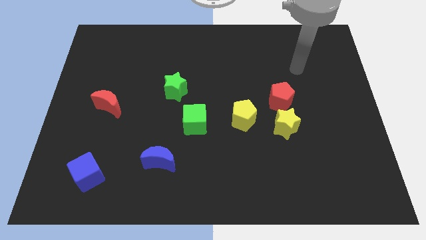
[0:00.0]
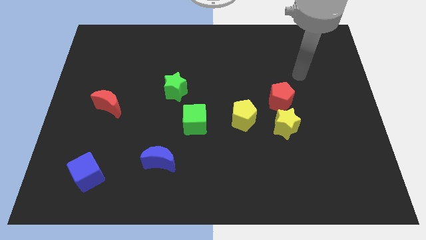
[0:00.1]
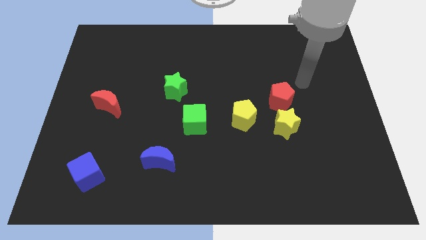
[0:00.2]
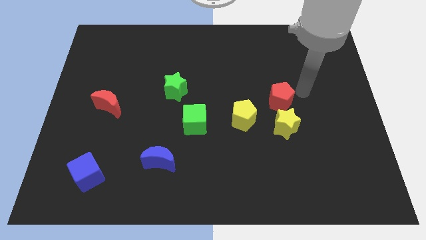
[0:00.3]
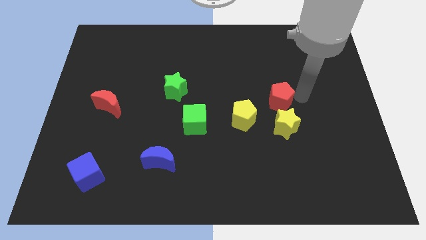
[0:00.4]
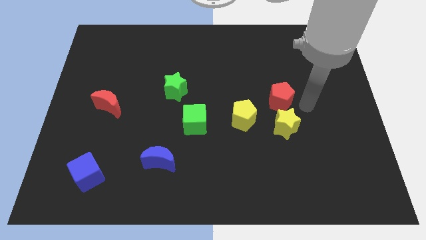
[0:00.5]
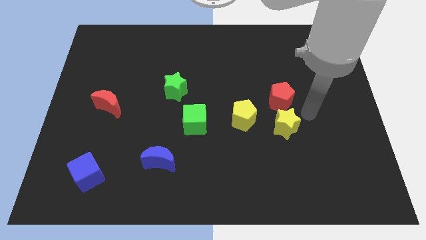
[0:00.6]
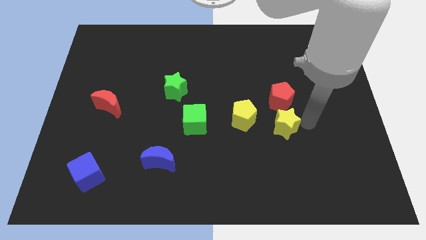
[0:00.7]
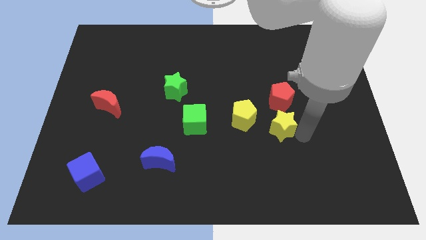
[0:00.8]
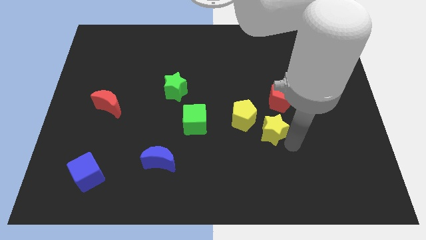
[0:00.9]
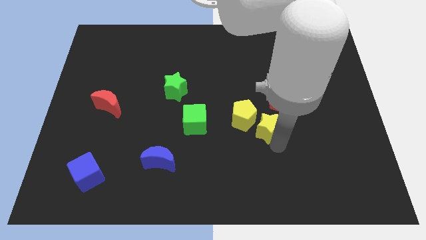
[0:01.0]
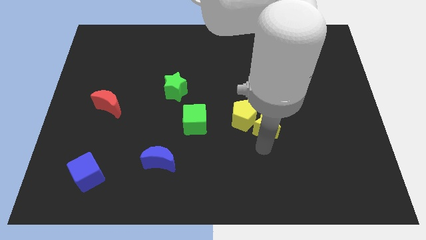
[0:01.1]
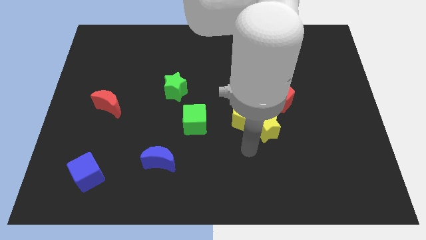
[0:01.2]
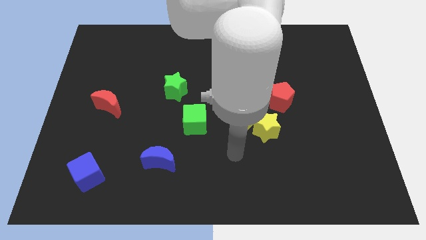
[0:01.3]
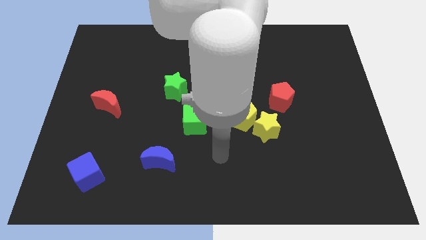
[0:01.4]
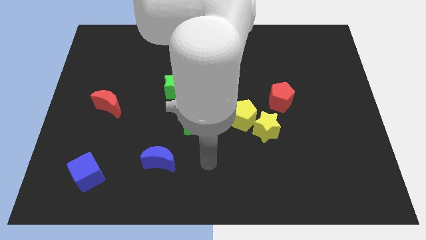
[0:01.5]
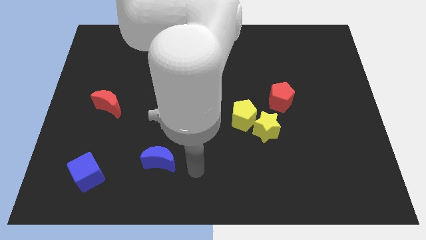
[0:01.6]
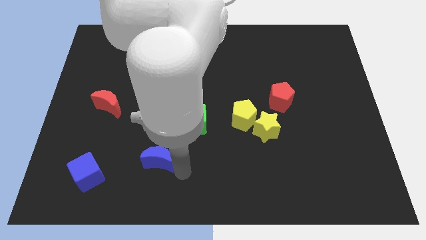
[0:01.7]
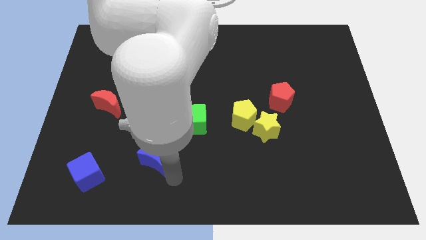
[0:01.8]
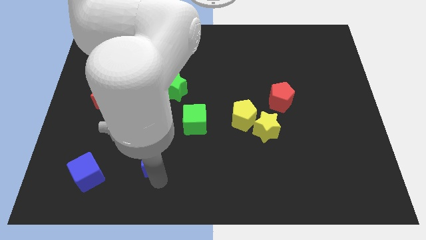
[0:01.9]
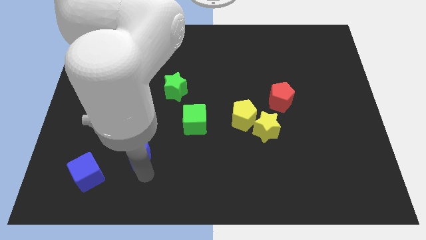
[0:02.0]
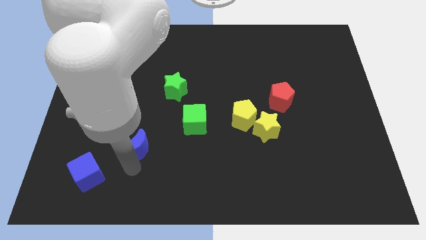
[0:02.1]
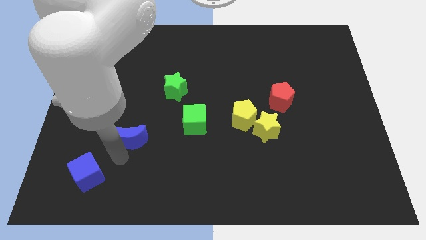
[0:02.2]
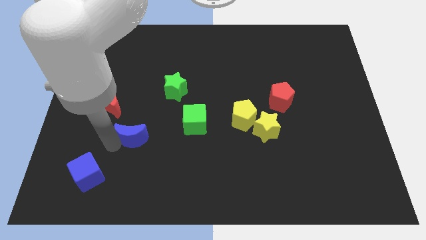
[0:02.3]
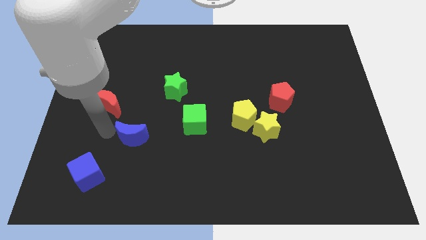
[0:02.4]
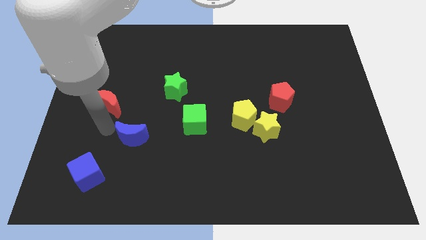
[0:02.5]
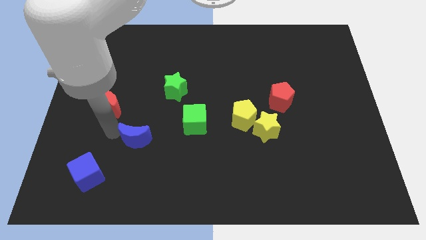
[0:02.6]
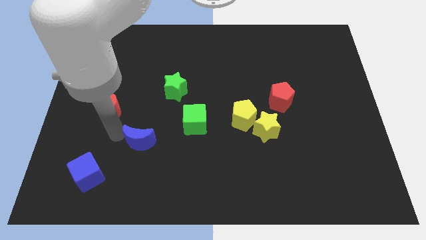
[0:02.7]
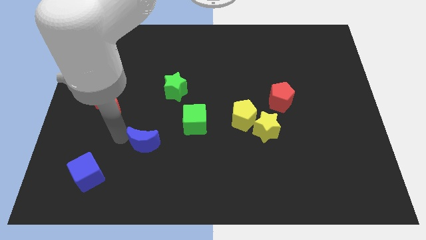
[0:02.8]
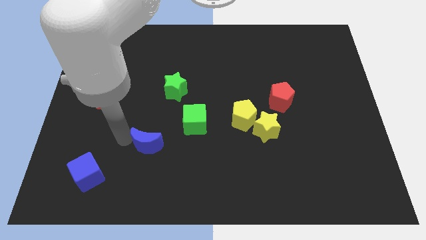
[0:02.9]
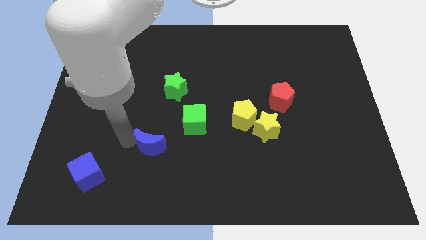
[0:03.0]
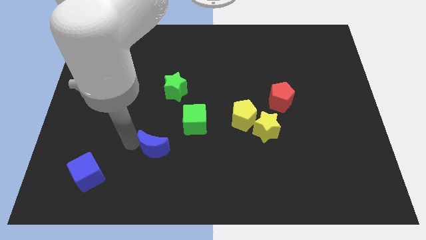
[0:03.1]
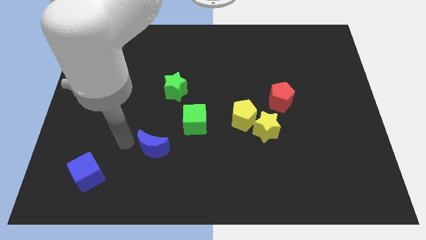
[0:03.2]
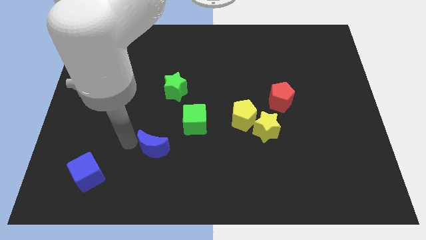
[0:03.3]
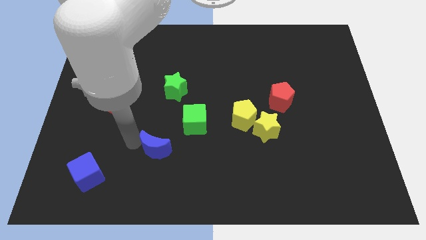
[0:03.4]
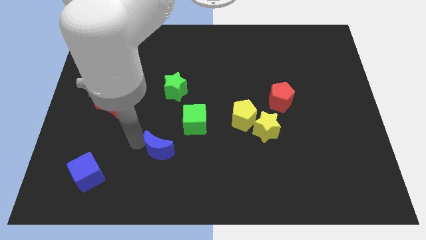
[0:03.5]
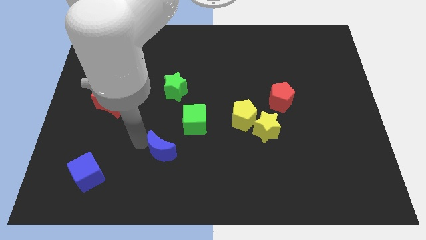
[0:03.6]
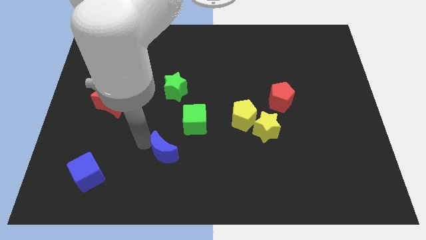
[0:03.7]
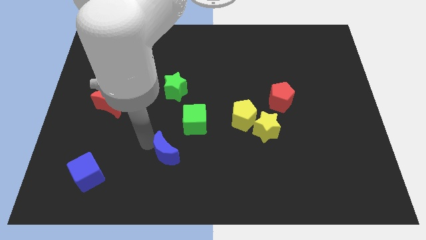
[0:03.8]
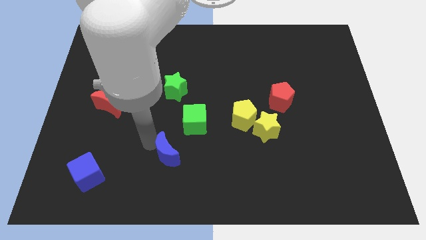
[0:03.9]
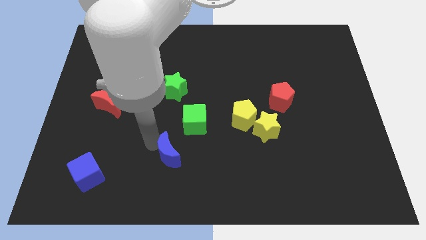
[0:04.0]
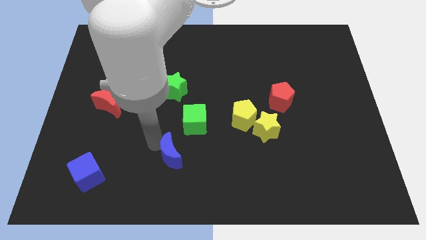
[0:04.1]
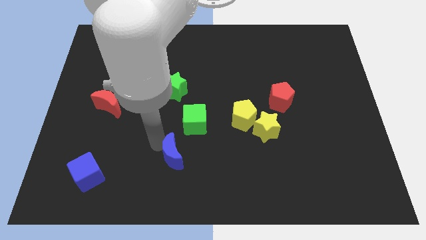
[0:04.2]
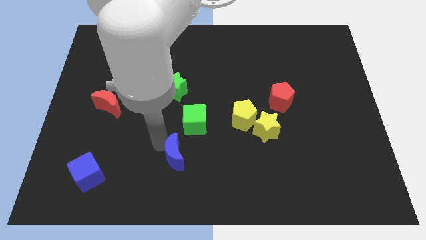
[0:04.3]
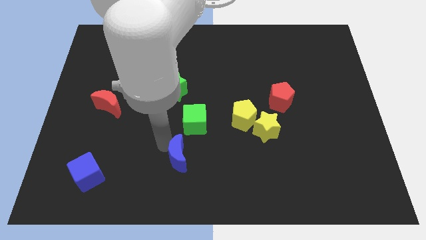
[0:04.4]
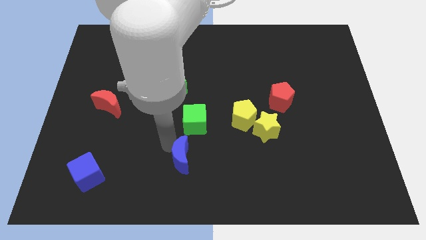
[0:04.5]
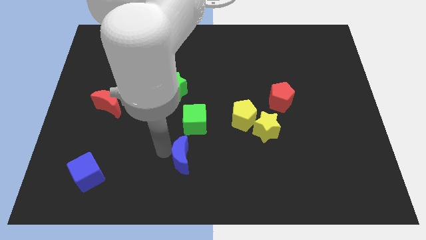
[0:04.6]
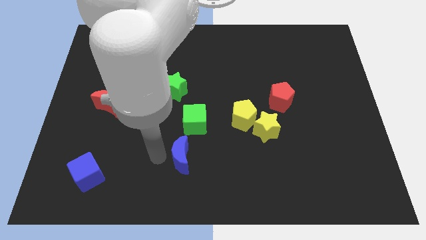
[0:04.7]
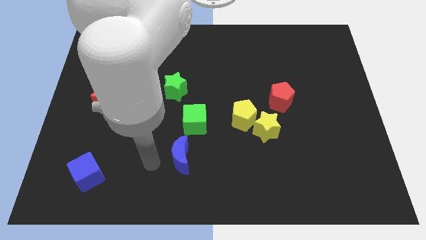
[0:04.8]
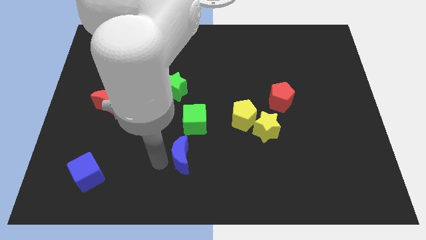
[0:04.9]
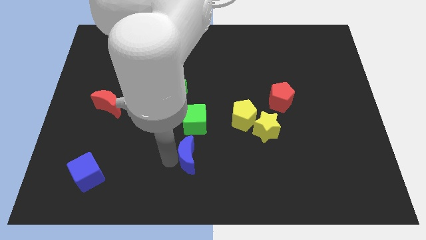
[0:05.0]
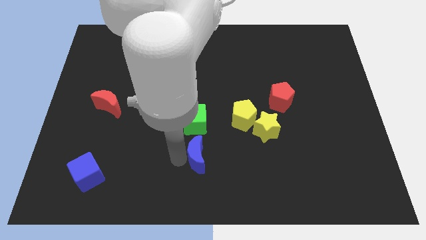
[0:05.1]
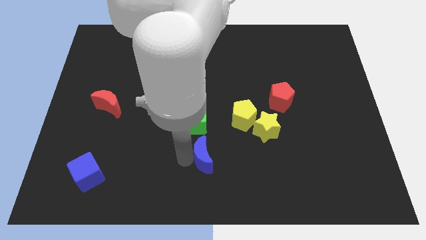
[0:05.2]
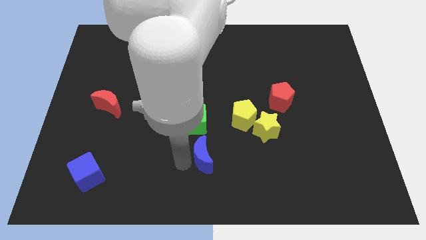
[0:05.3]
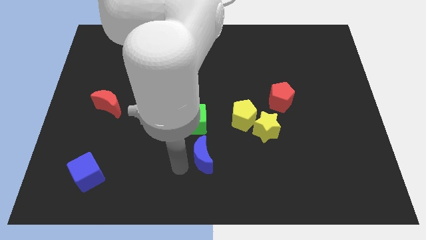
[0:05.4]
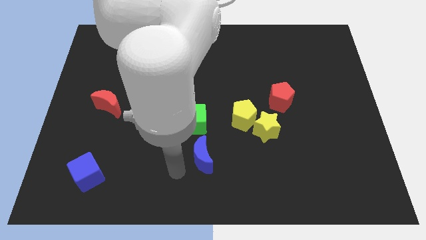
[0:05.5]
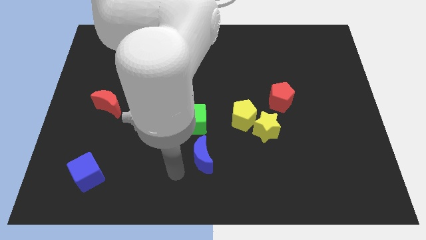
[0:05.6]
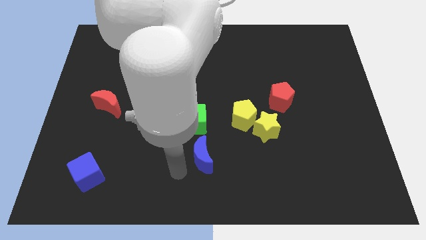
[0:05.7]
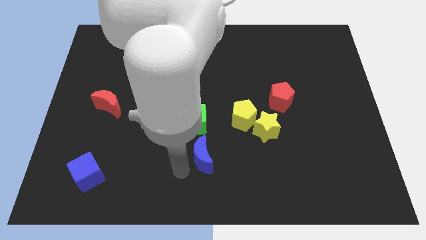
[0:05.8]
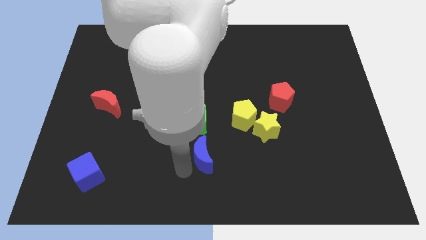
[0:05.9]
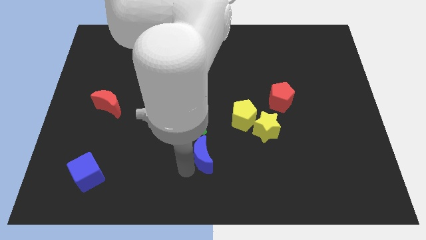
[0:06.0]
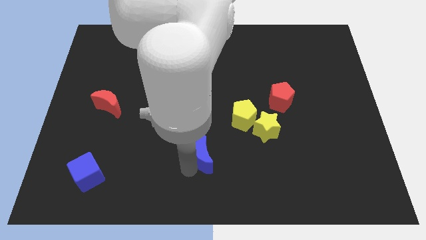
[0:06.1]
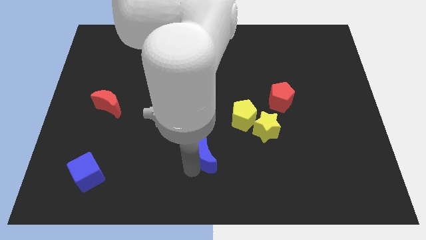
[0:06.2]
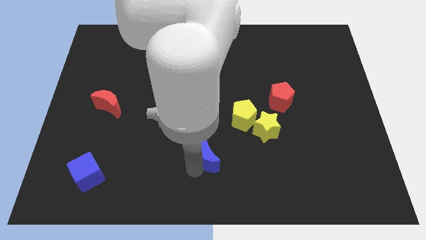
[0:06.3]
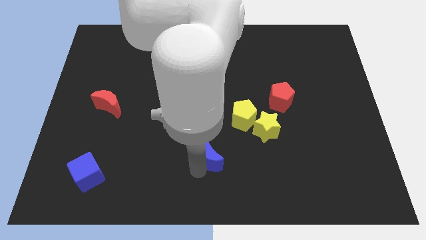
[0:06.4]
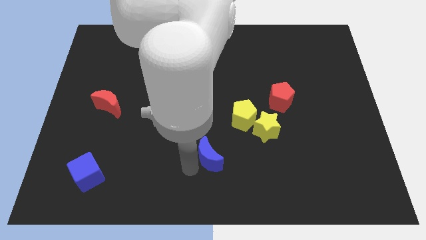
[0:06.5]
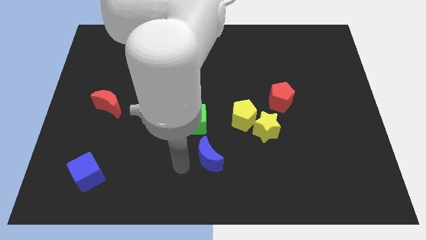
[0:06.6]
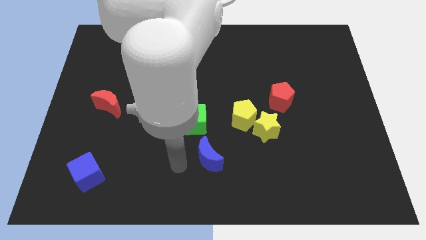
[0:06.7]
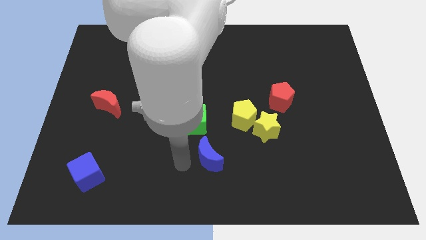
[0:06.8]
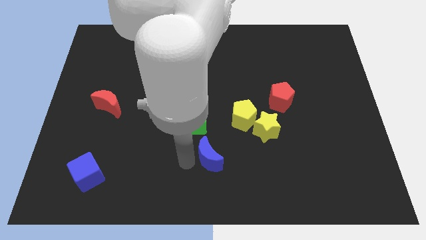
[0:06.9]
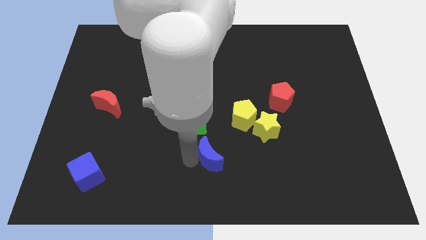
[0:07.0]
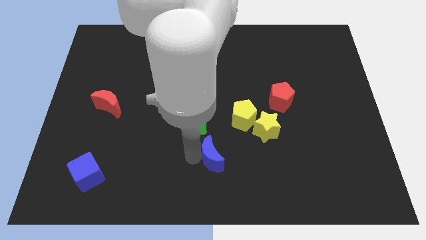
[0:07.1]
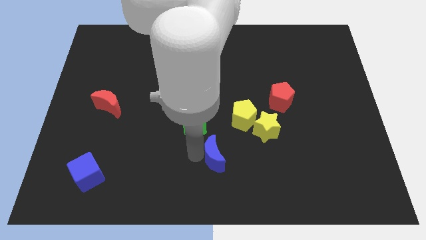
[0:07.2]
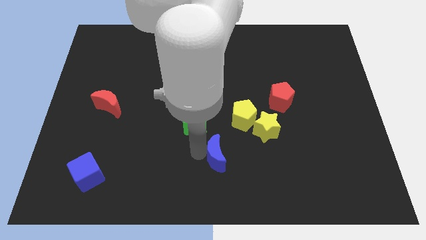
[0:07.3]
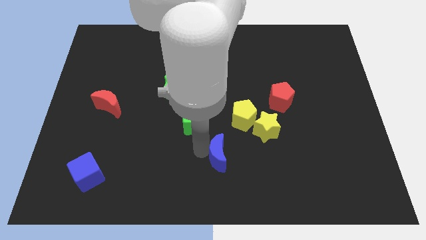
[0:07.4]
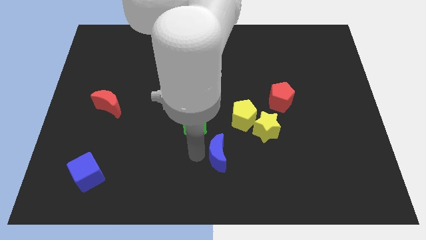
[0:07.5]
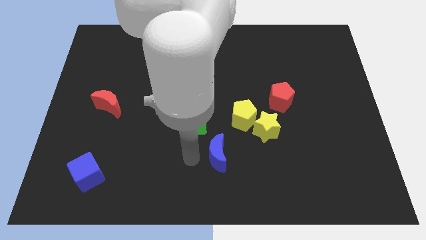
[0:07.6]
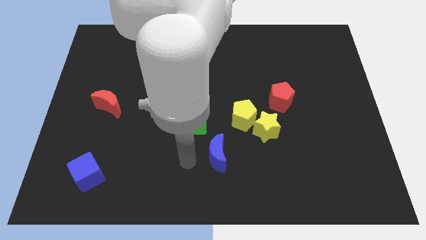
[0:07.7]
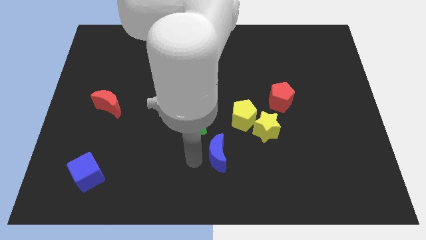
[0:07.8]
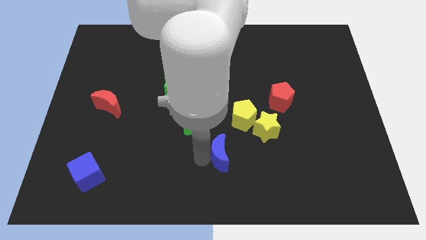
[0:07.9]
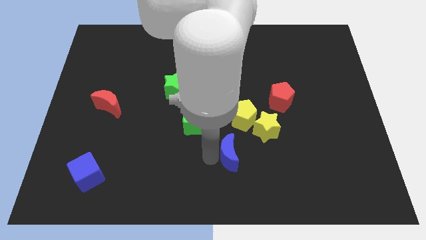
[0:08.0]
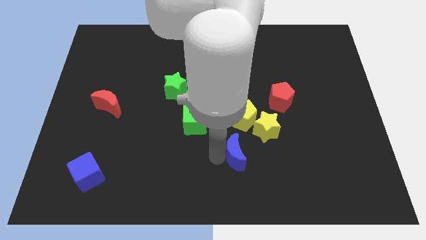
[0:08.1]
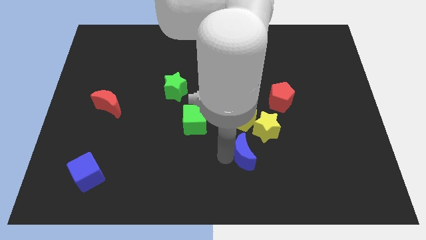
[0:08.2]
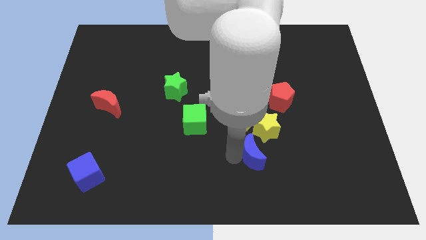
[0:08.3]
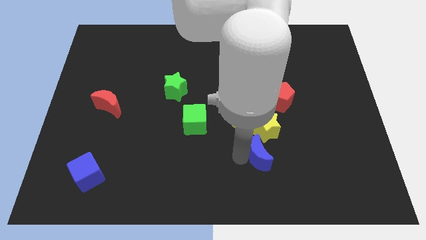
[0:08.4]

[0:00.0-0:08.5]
move the blue moon to the right
